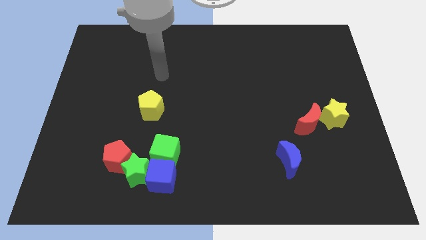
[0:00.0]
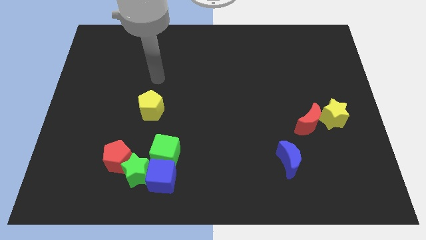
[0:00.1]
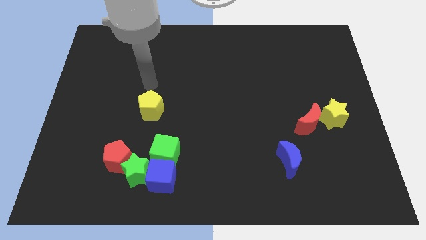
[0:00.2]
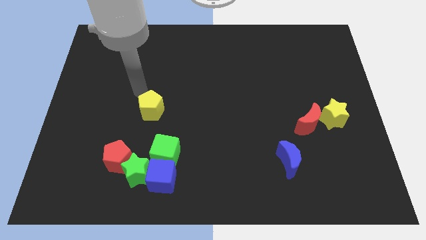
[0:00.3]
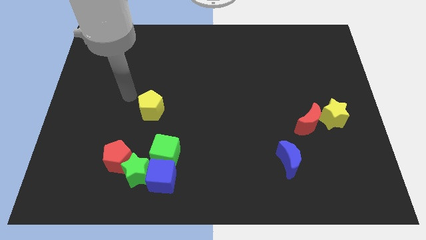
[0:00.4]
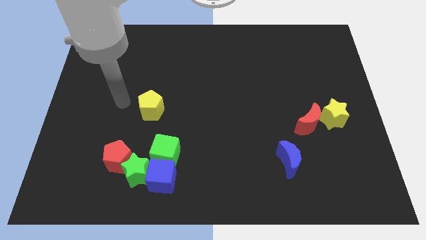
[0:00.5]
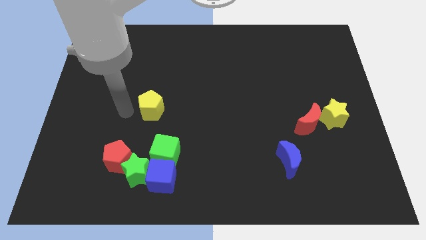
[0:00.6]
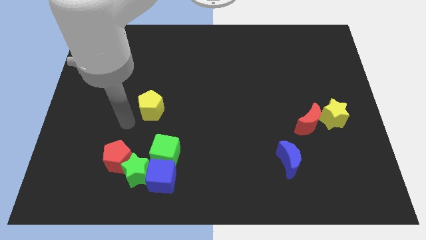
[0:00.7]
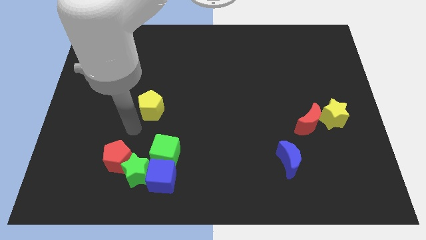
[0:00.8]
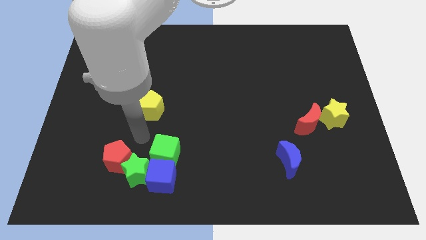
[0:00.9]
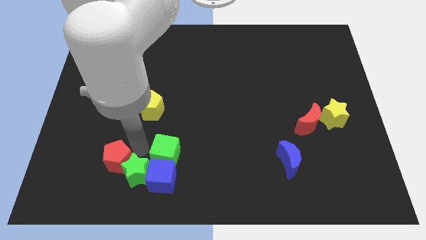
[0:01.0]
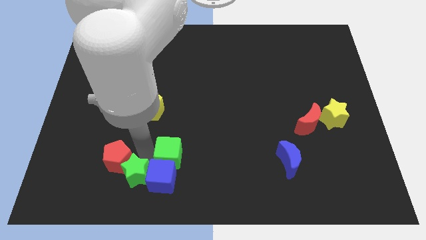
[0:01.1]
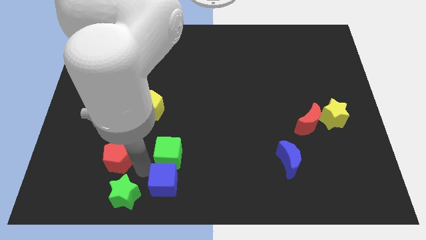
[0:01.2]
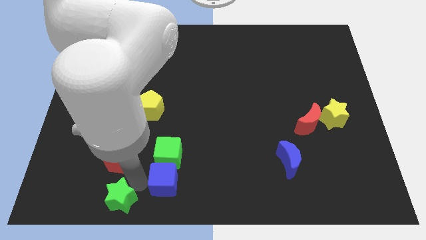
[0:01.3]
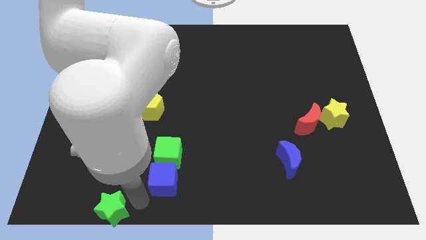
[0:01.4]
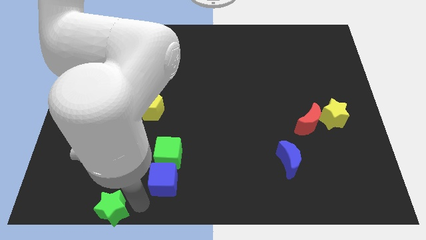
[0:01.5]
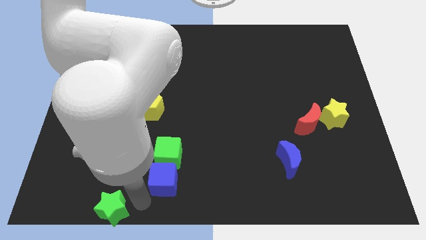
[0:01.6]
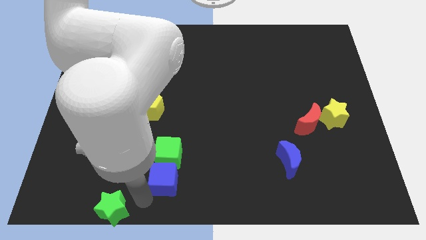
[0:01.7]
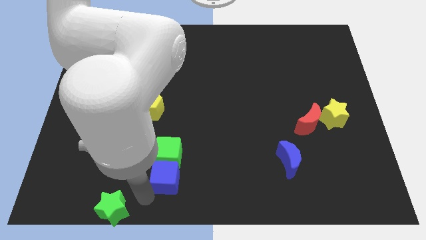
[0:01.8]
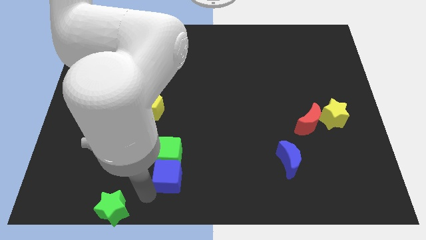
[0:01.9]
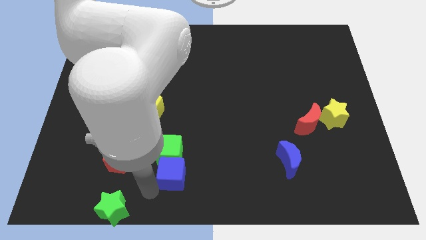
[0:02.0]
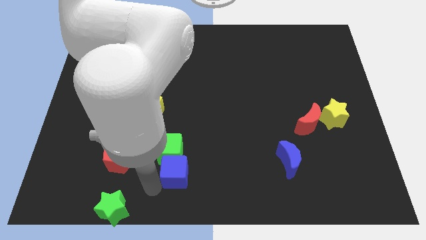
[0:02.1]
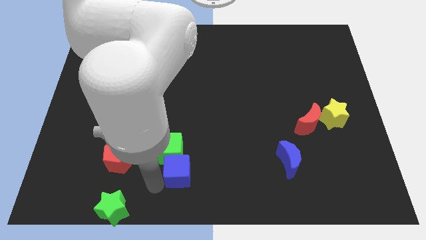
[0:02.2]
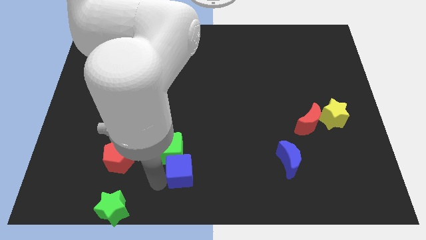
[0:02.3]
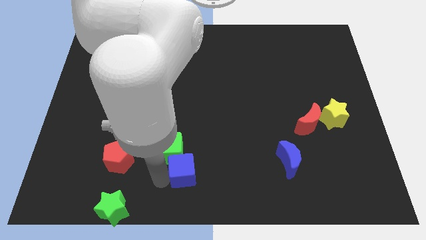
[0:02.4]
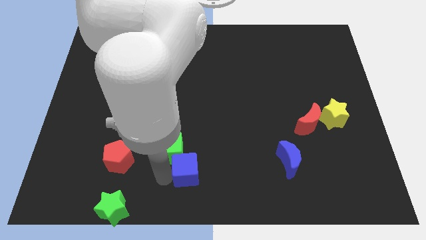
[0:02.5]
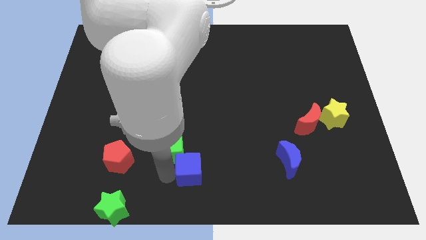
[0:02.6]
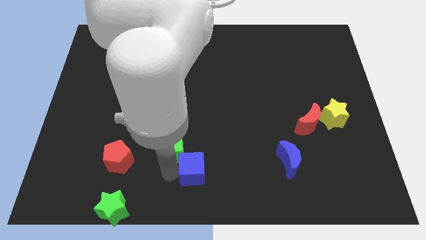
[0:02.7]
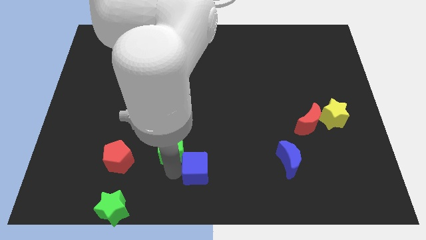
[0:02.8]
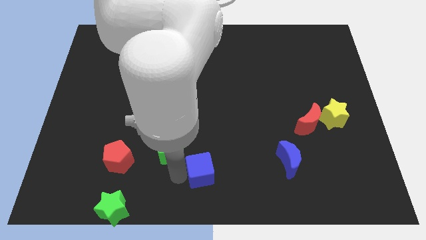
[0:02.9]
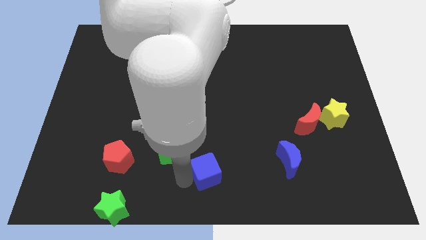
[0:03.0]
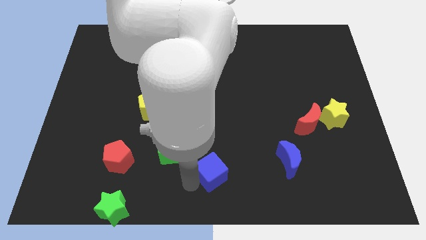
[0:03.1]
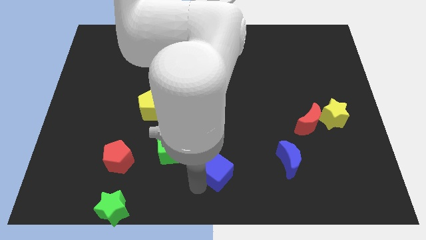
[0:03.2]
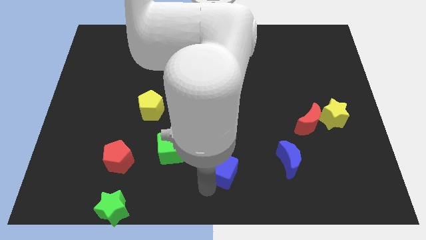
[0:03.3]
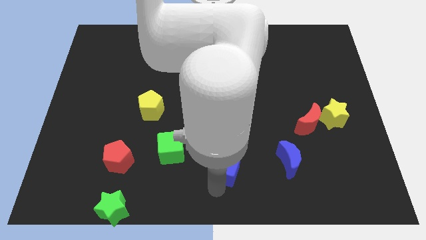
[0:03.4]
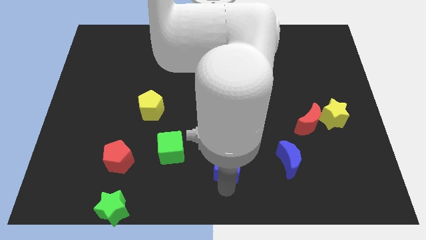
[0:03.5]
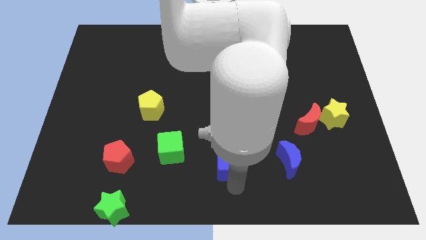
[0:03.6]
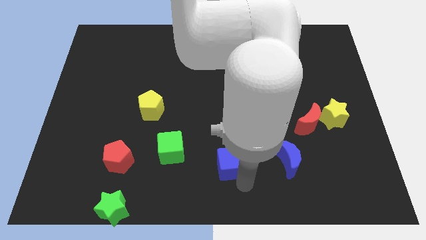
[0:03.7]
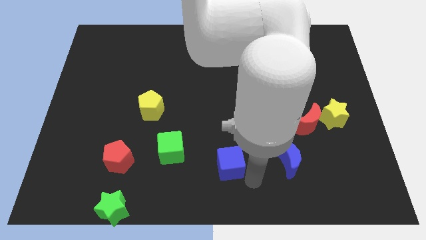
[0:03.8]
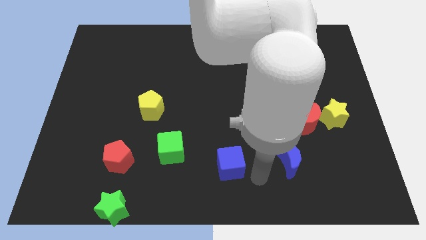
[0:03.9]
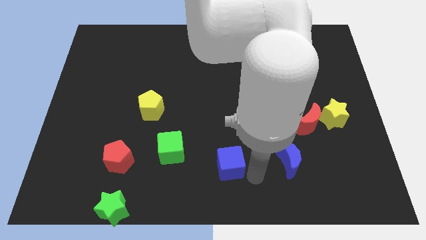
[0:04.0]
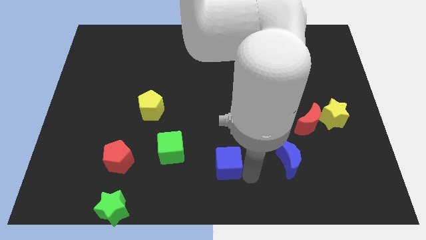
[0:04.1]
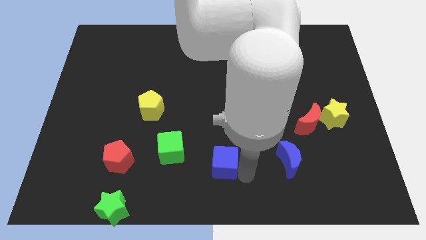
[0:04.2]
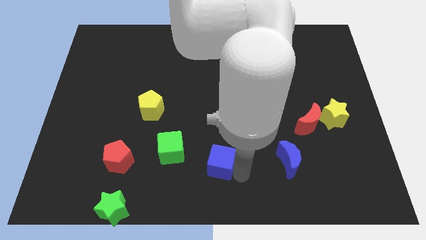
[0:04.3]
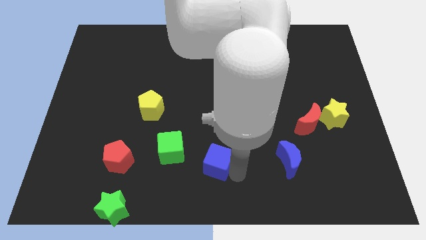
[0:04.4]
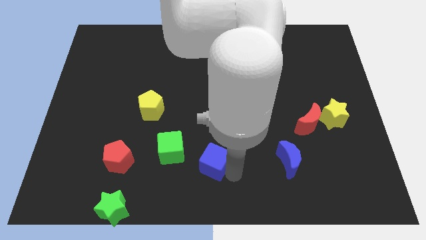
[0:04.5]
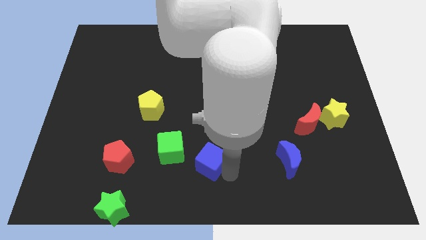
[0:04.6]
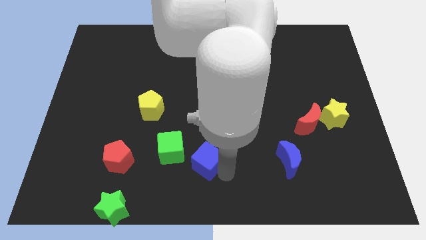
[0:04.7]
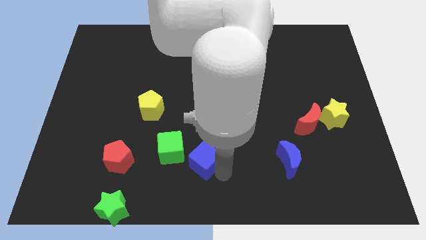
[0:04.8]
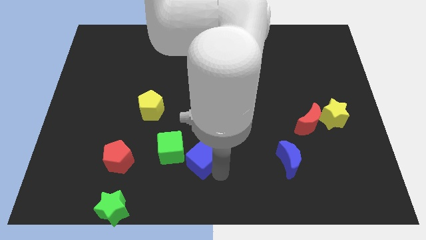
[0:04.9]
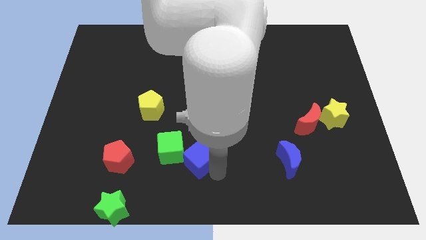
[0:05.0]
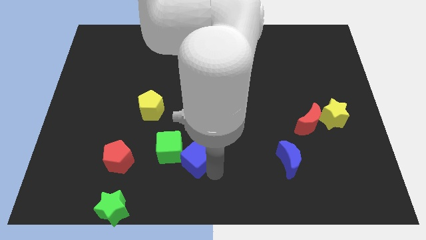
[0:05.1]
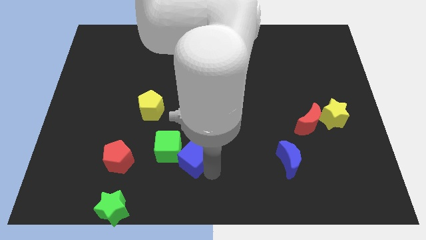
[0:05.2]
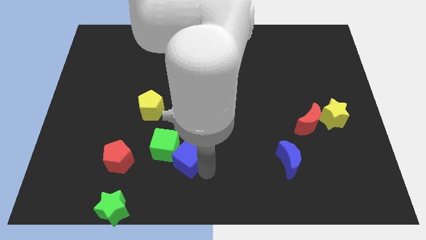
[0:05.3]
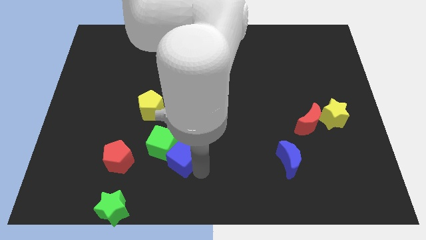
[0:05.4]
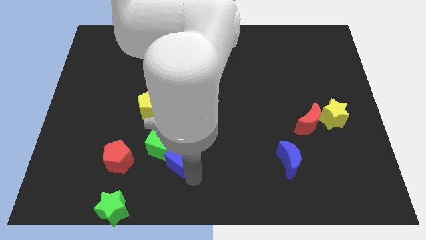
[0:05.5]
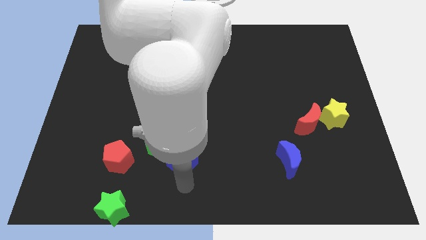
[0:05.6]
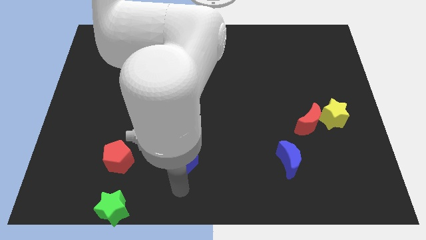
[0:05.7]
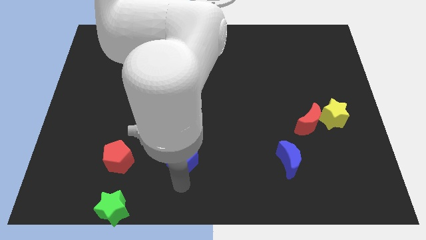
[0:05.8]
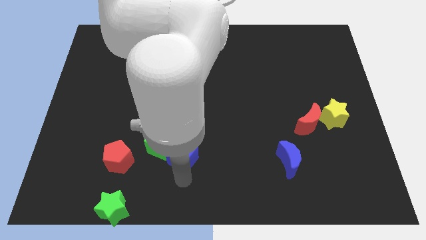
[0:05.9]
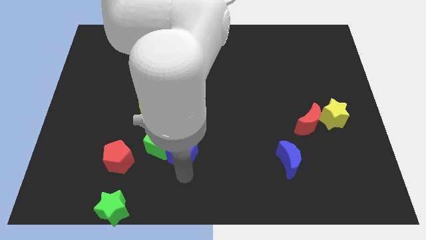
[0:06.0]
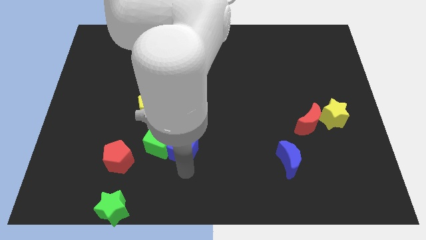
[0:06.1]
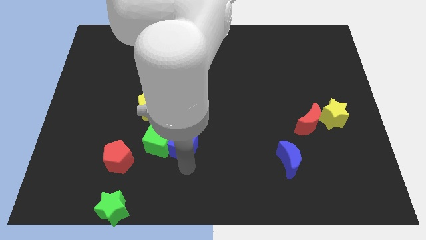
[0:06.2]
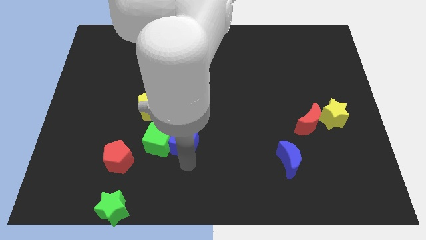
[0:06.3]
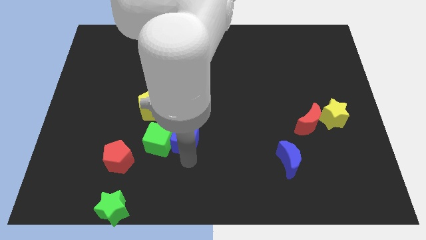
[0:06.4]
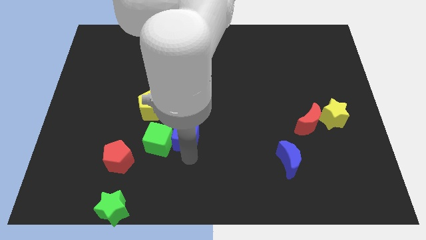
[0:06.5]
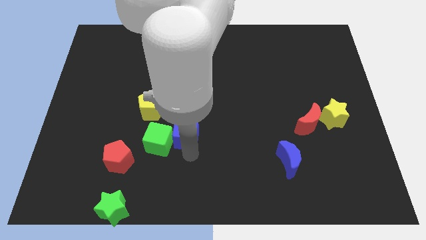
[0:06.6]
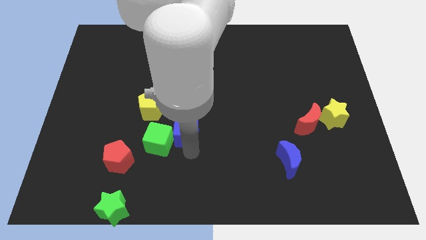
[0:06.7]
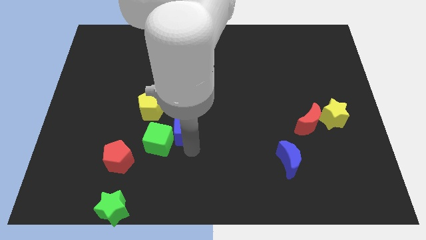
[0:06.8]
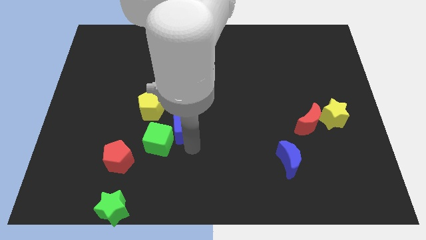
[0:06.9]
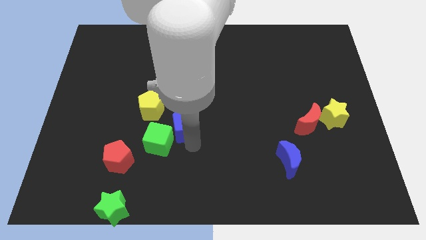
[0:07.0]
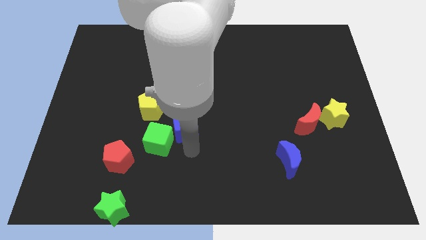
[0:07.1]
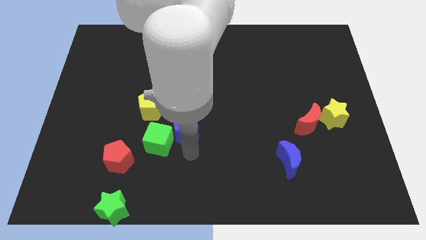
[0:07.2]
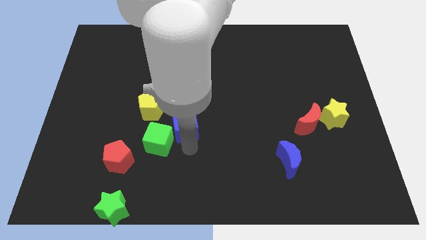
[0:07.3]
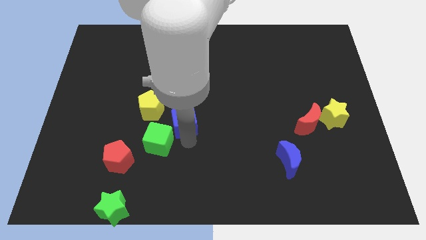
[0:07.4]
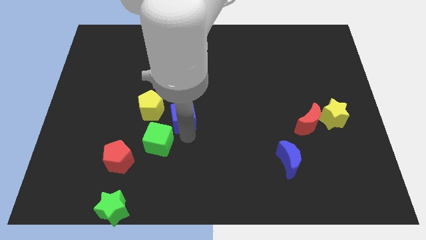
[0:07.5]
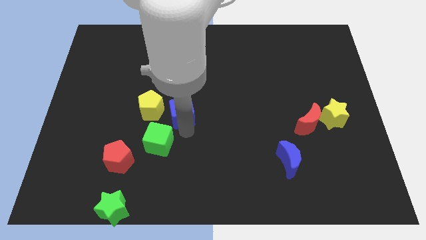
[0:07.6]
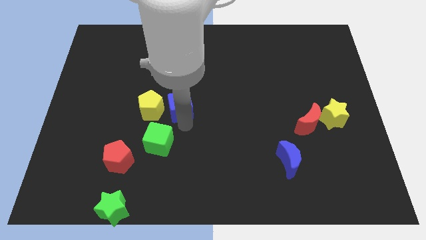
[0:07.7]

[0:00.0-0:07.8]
put the blue cube to the top right side of the yellow pentagon

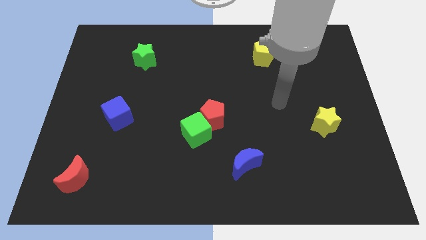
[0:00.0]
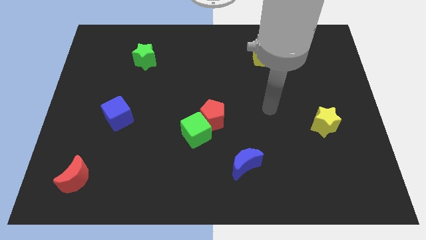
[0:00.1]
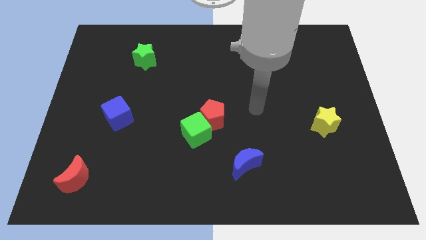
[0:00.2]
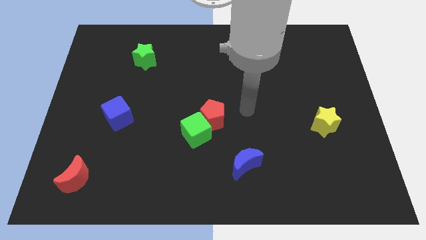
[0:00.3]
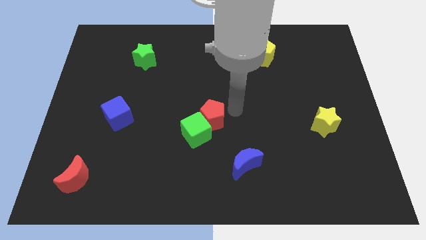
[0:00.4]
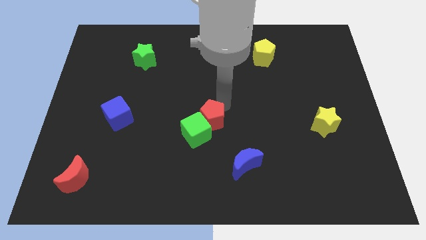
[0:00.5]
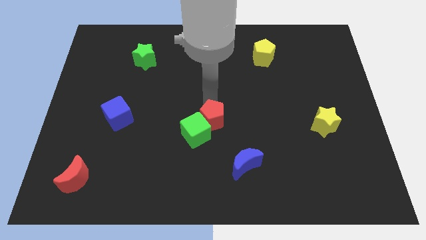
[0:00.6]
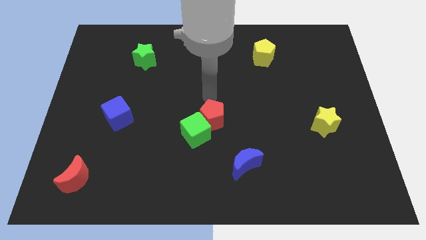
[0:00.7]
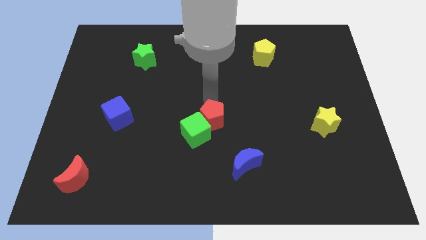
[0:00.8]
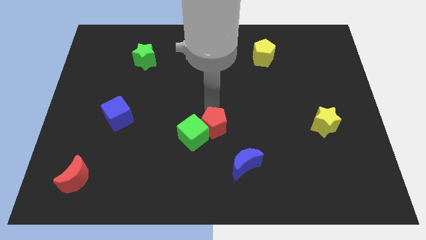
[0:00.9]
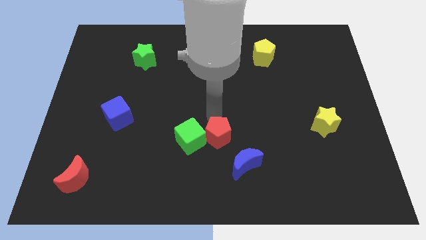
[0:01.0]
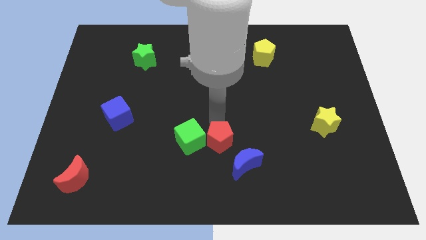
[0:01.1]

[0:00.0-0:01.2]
put the red pentagon diagonally down and to the right of the green cube
